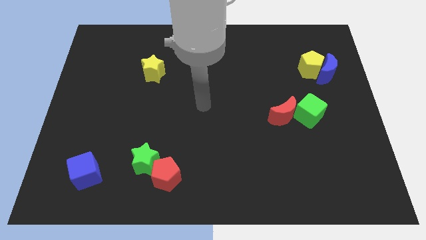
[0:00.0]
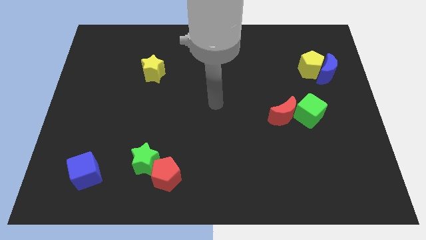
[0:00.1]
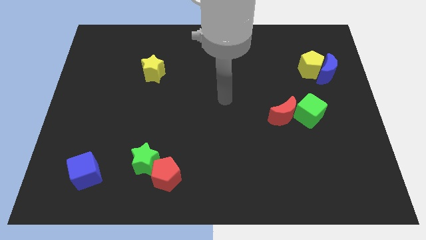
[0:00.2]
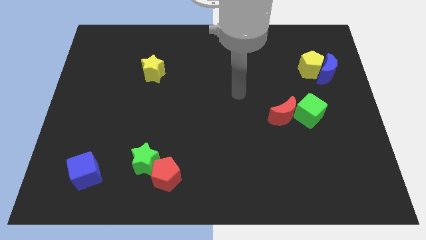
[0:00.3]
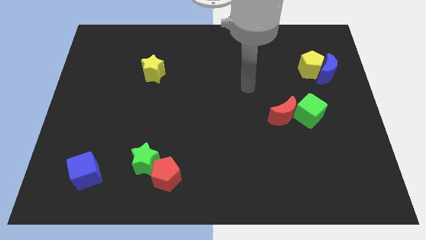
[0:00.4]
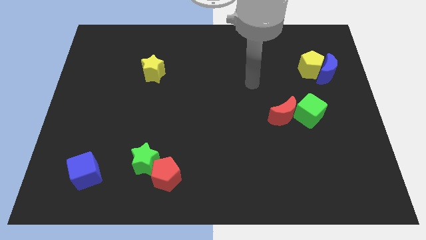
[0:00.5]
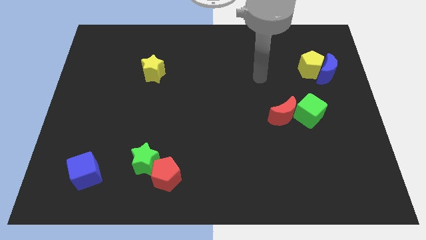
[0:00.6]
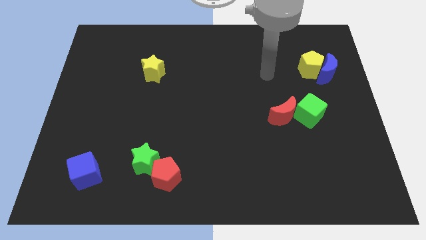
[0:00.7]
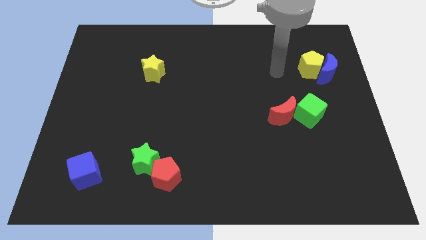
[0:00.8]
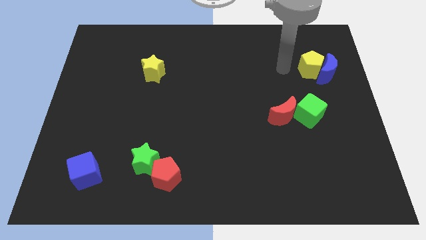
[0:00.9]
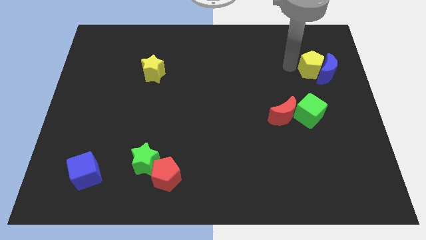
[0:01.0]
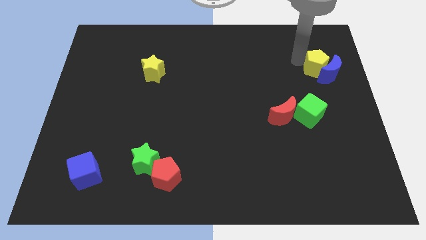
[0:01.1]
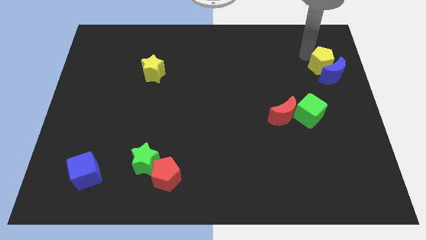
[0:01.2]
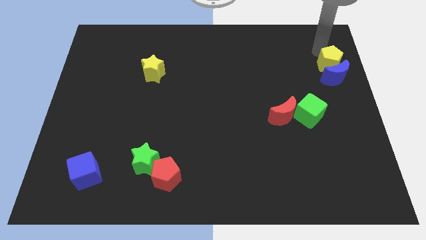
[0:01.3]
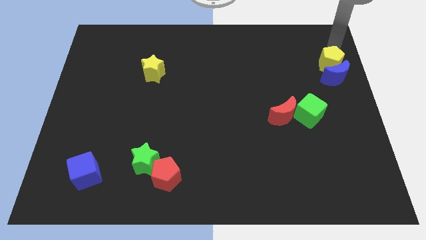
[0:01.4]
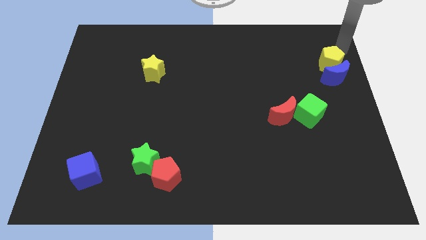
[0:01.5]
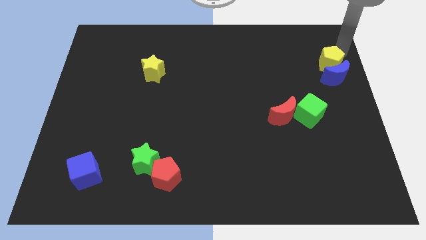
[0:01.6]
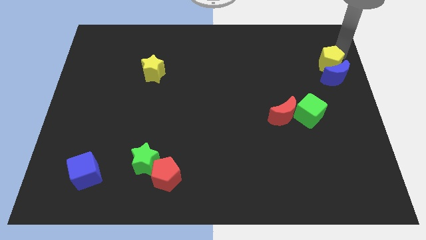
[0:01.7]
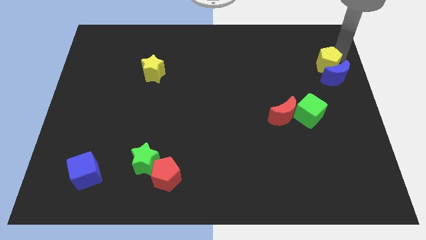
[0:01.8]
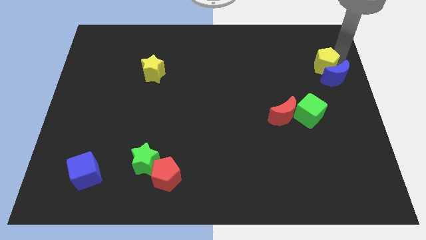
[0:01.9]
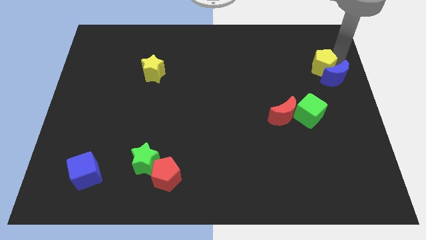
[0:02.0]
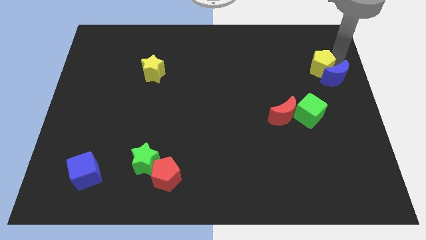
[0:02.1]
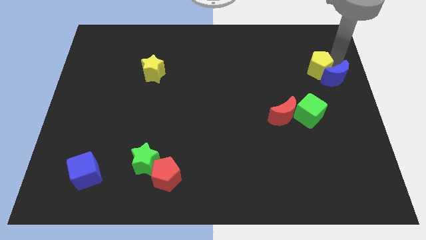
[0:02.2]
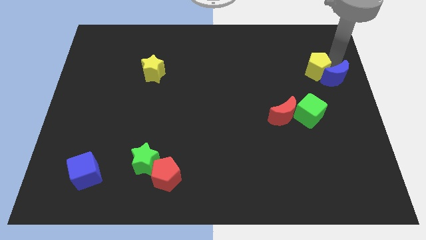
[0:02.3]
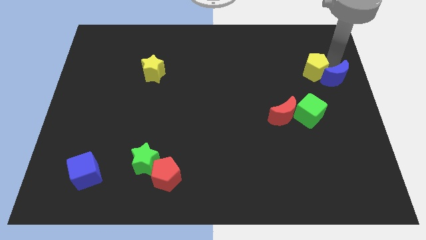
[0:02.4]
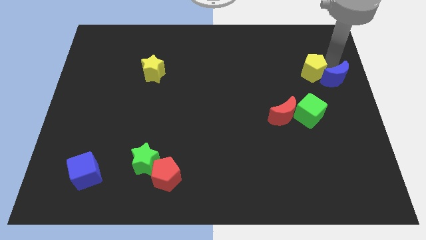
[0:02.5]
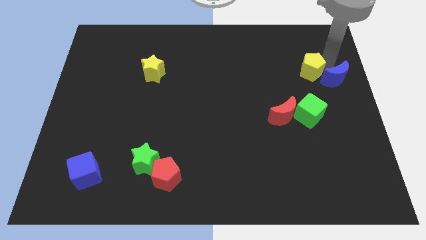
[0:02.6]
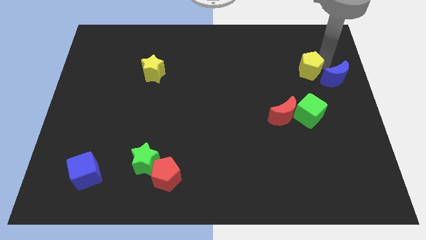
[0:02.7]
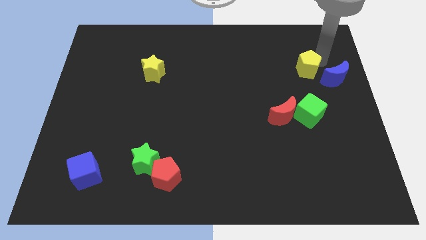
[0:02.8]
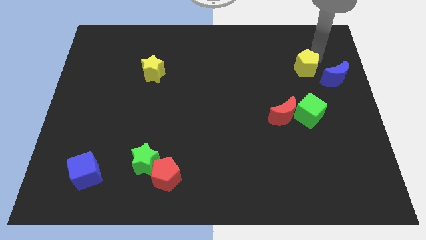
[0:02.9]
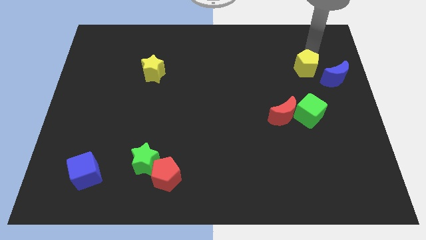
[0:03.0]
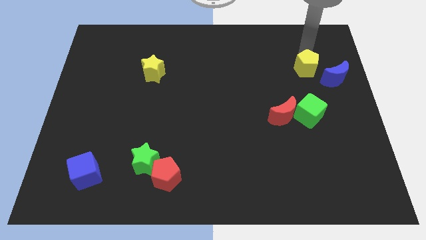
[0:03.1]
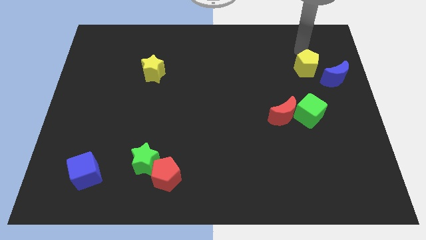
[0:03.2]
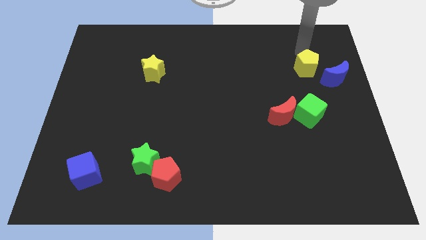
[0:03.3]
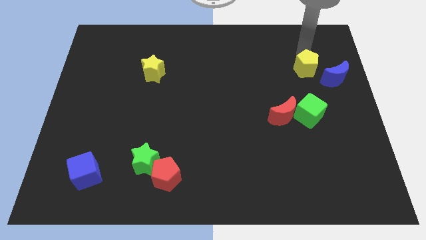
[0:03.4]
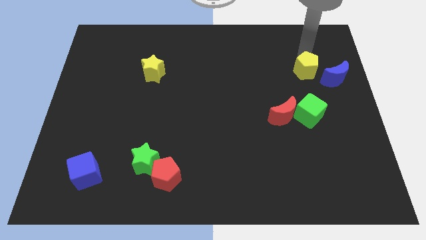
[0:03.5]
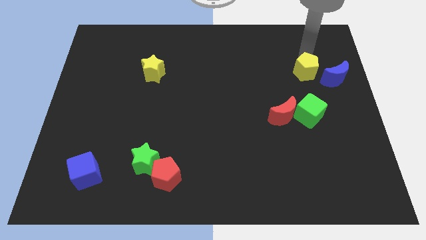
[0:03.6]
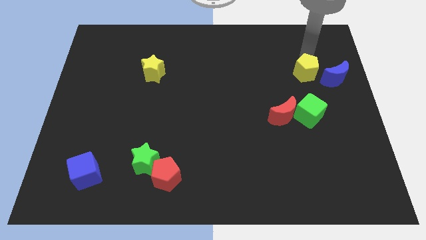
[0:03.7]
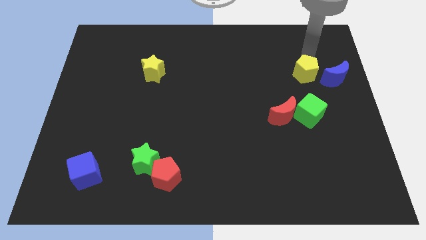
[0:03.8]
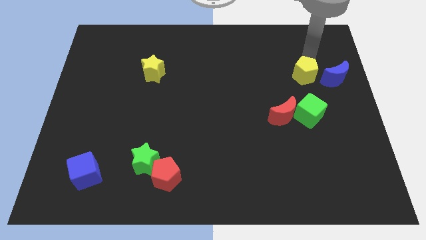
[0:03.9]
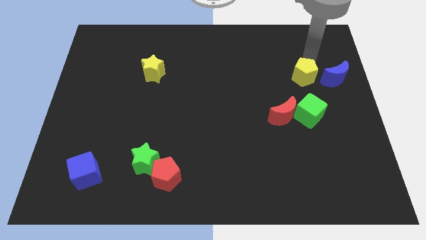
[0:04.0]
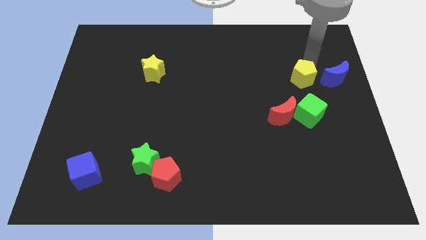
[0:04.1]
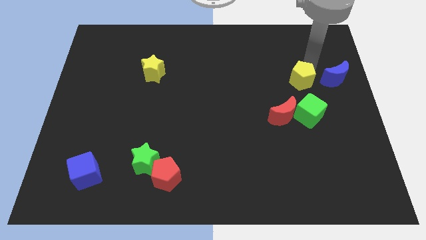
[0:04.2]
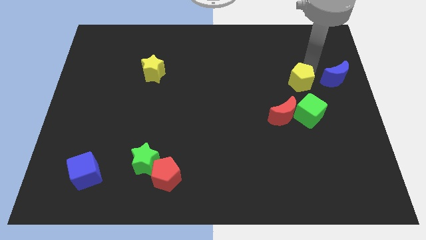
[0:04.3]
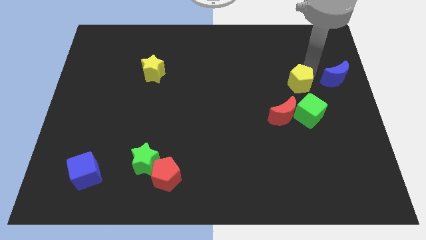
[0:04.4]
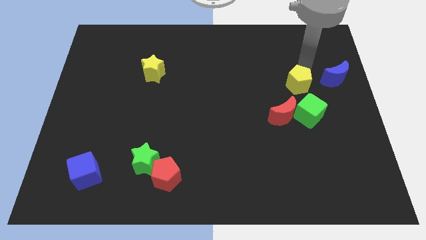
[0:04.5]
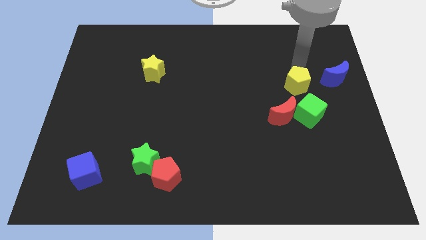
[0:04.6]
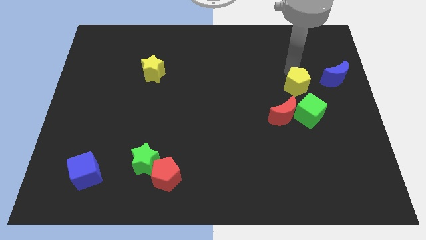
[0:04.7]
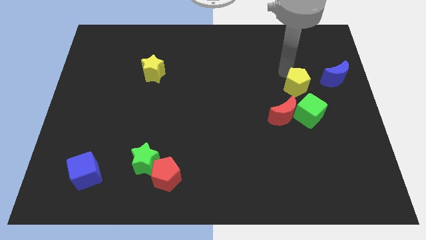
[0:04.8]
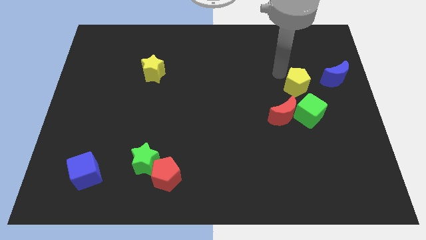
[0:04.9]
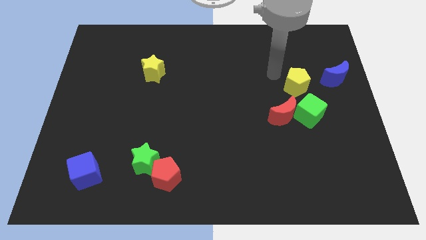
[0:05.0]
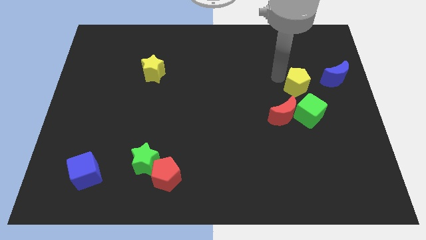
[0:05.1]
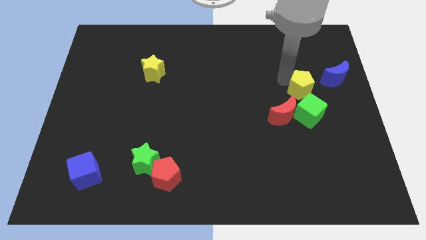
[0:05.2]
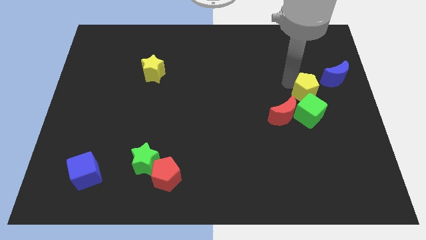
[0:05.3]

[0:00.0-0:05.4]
move the yellow pentagon slightly down

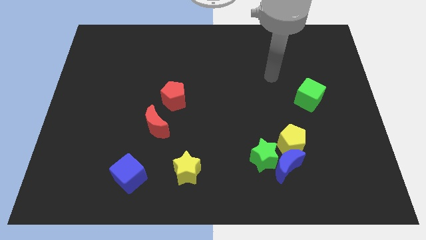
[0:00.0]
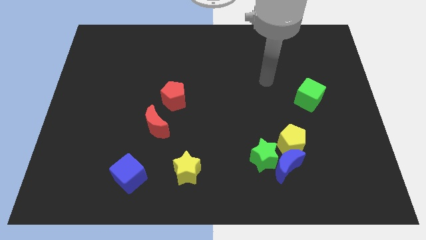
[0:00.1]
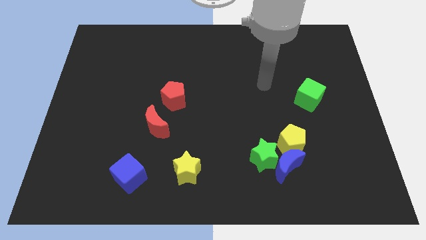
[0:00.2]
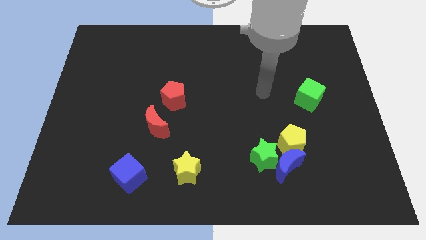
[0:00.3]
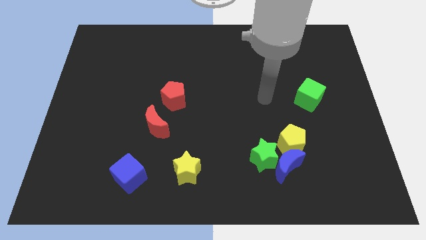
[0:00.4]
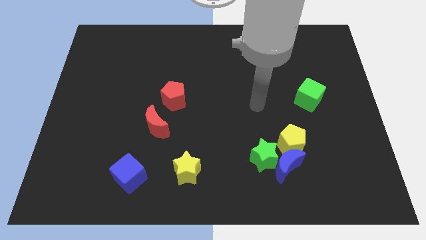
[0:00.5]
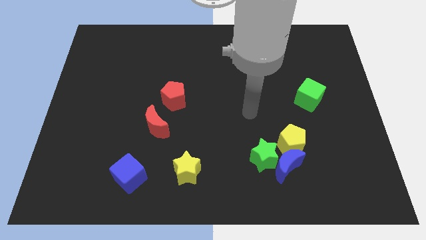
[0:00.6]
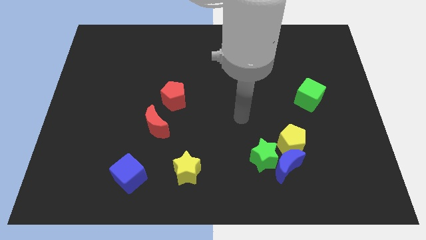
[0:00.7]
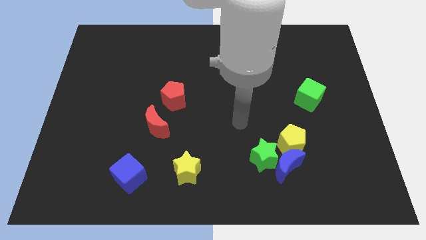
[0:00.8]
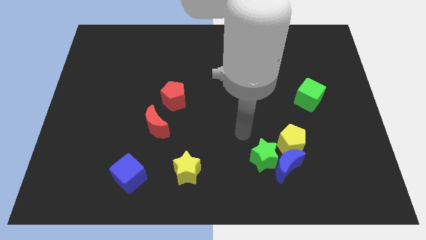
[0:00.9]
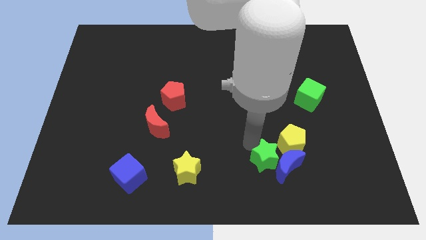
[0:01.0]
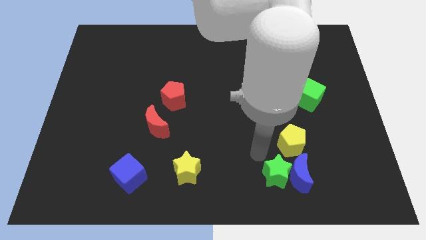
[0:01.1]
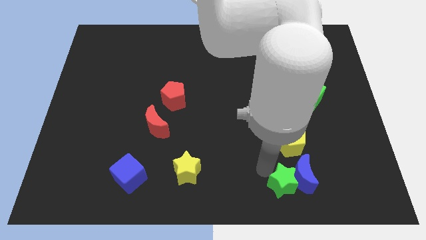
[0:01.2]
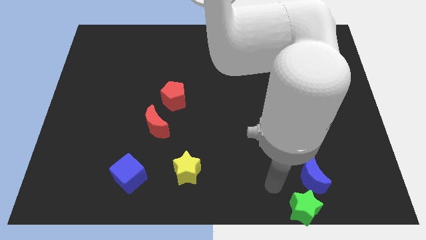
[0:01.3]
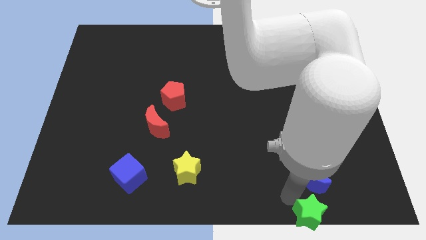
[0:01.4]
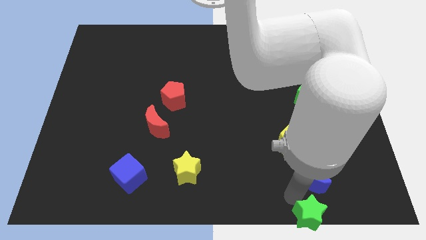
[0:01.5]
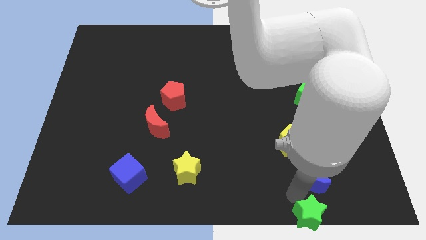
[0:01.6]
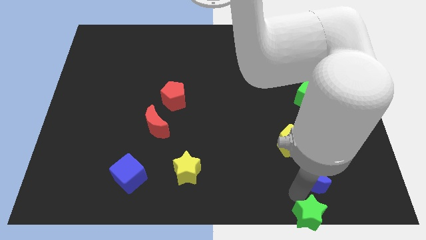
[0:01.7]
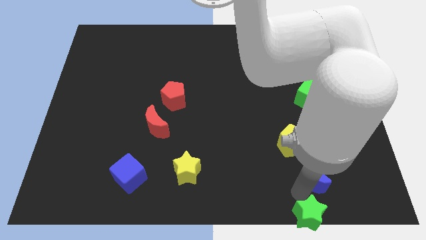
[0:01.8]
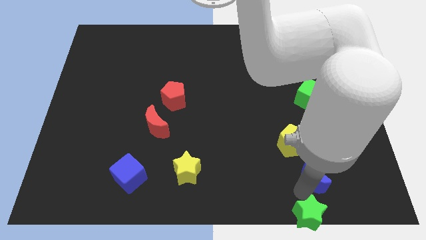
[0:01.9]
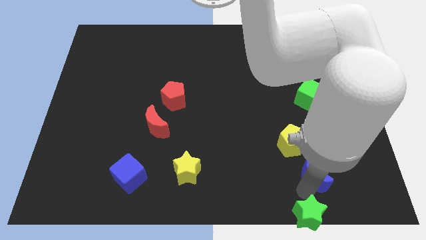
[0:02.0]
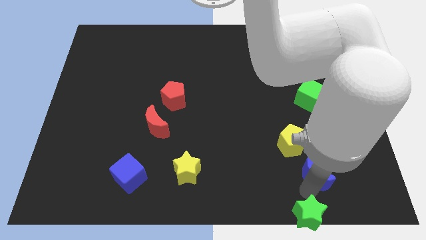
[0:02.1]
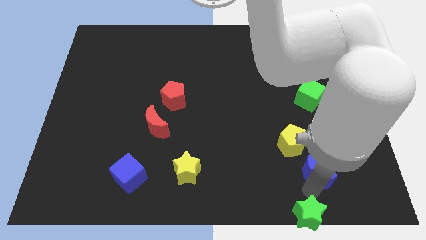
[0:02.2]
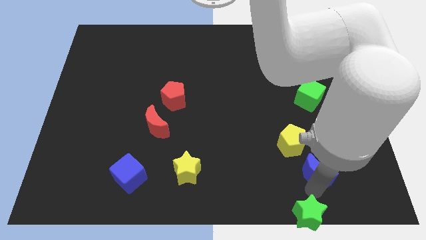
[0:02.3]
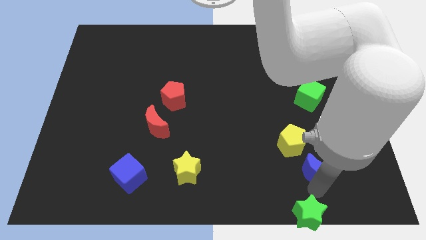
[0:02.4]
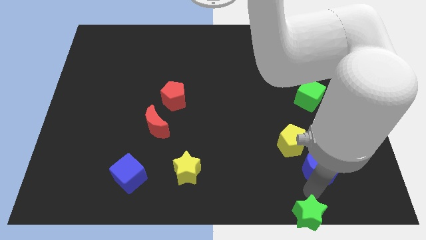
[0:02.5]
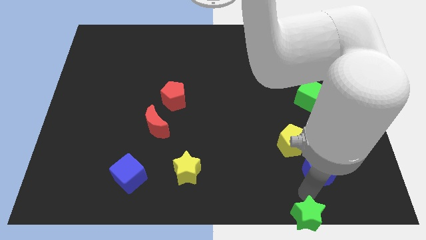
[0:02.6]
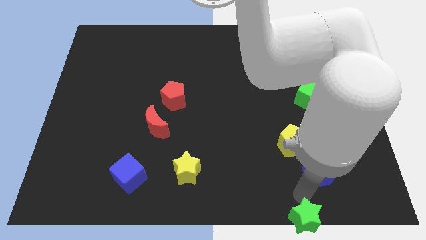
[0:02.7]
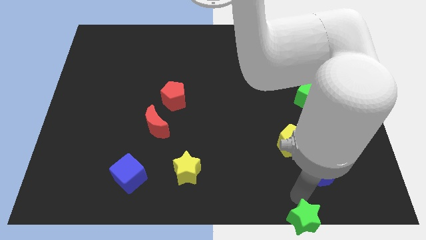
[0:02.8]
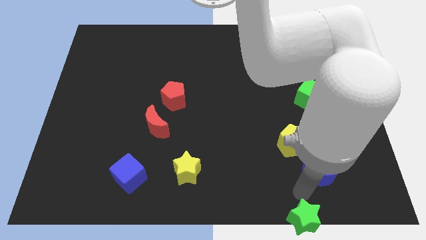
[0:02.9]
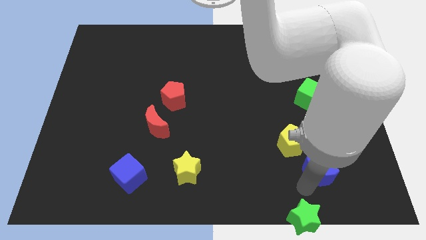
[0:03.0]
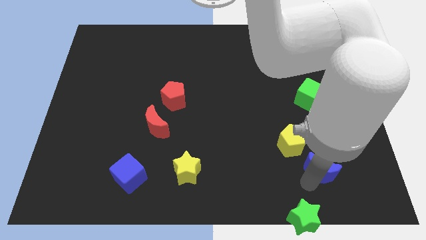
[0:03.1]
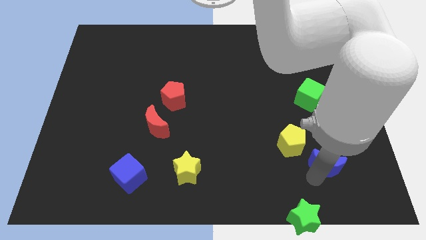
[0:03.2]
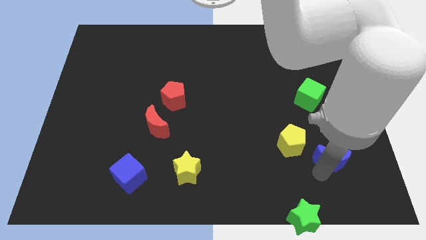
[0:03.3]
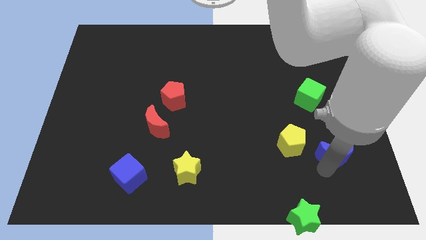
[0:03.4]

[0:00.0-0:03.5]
slightly slide the blue moon upwards and to the right
